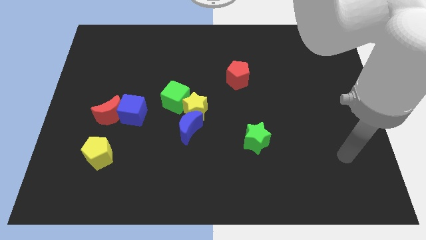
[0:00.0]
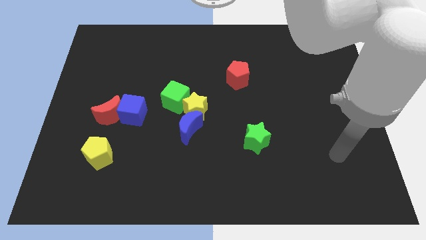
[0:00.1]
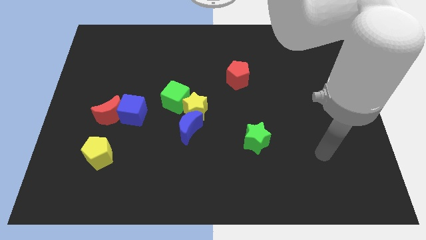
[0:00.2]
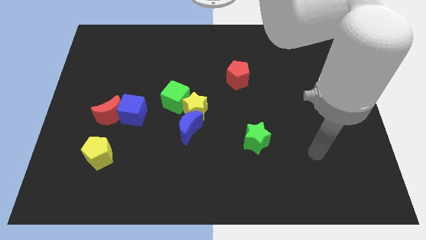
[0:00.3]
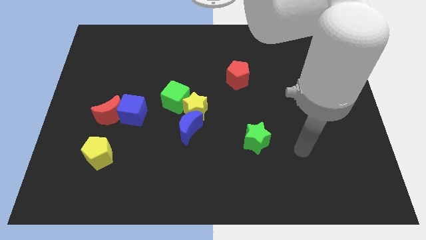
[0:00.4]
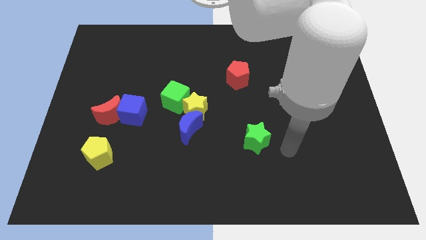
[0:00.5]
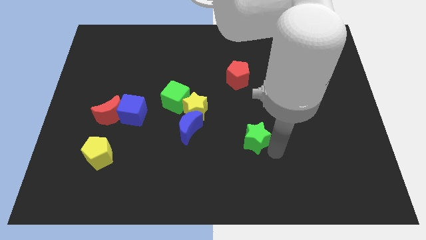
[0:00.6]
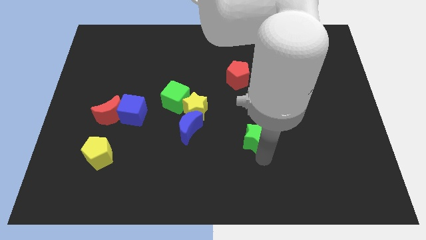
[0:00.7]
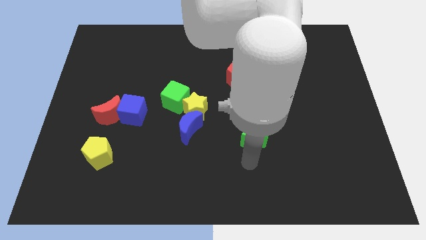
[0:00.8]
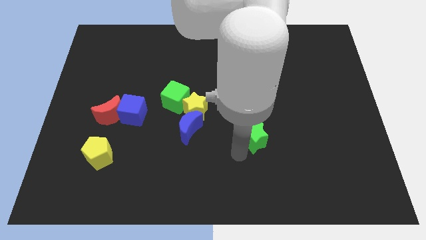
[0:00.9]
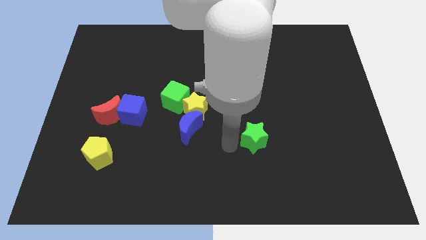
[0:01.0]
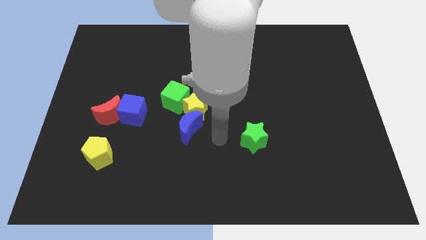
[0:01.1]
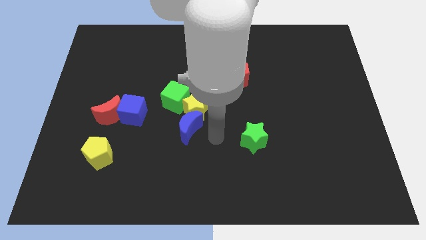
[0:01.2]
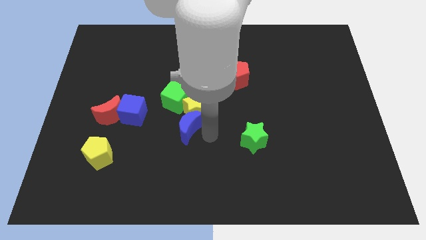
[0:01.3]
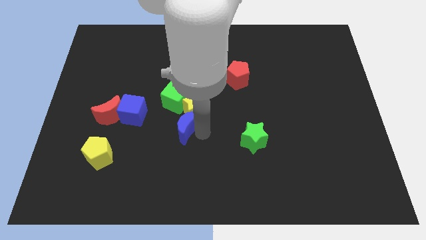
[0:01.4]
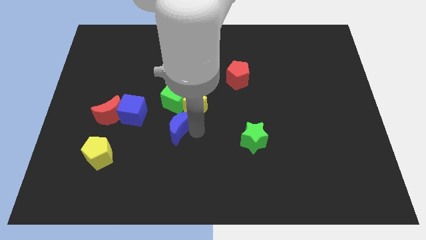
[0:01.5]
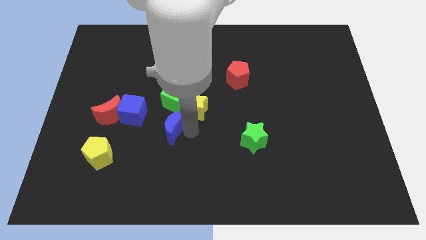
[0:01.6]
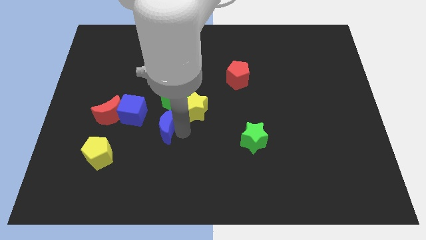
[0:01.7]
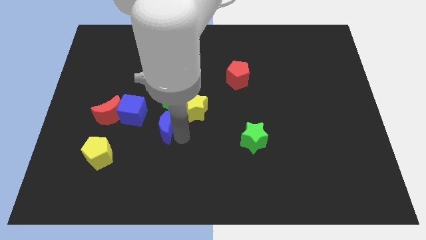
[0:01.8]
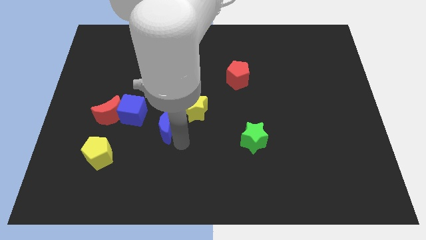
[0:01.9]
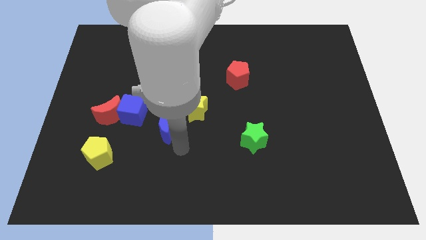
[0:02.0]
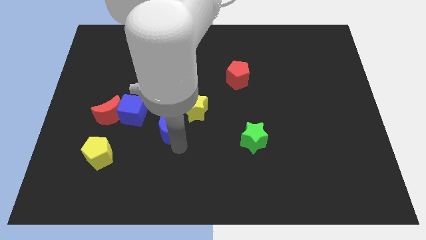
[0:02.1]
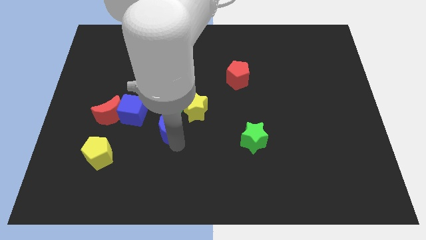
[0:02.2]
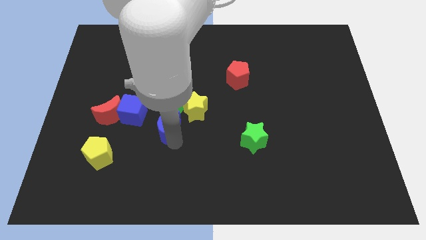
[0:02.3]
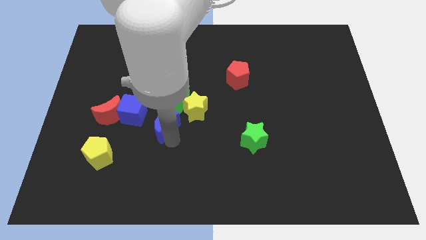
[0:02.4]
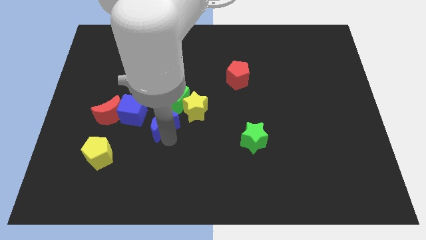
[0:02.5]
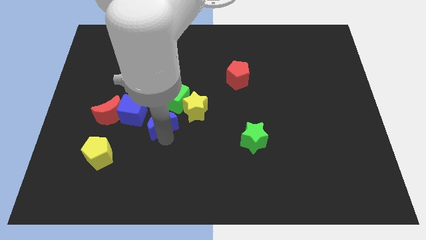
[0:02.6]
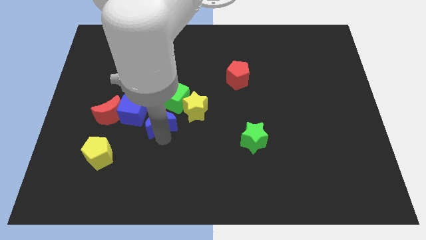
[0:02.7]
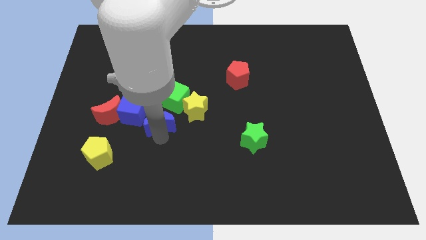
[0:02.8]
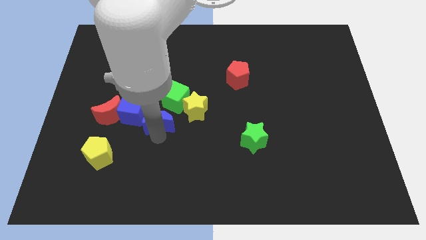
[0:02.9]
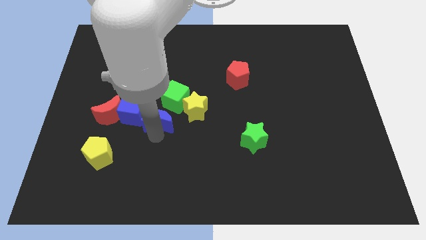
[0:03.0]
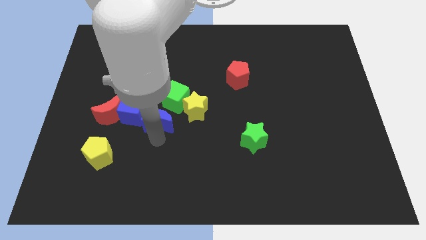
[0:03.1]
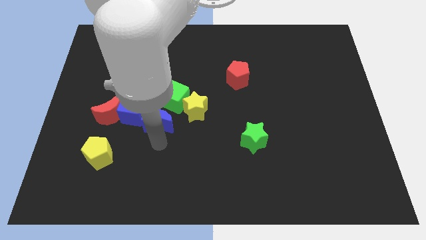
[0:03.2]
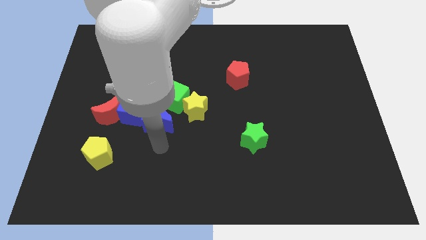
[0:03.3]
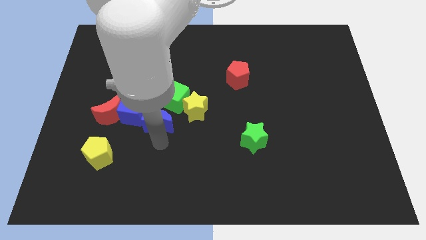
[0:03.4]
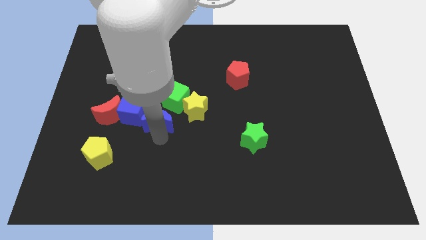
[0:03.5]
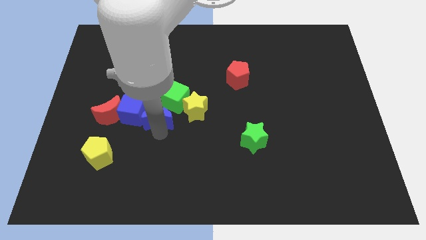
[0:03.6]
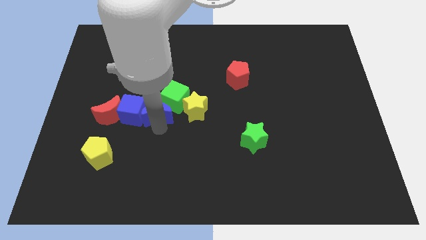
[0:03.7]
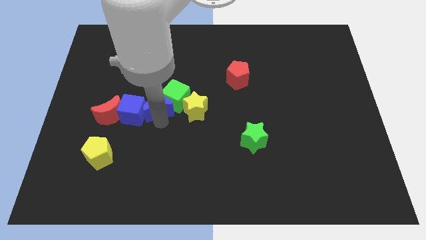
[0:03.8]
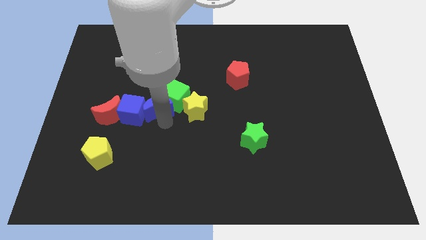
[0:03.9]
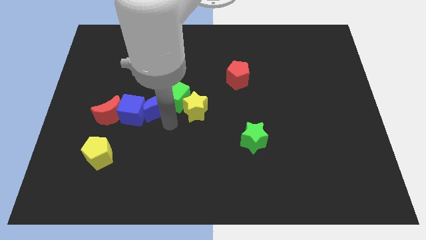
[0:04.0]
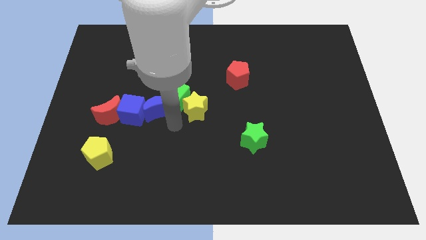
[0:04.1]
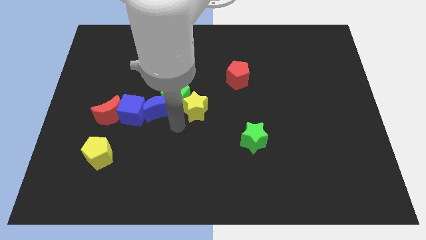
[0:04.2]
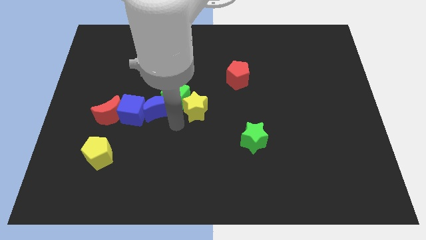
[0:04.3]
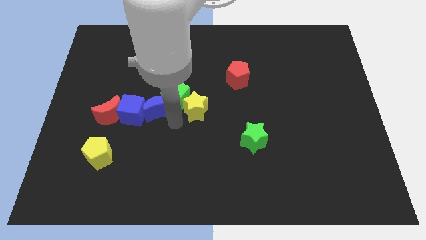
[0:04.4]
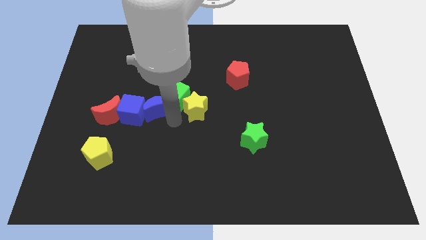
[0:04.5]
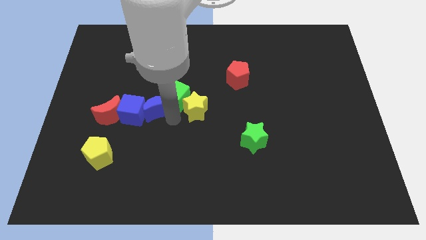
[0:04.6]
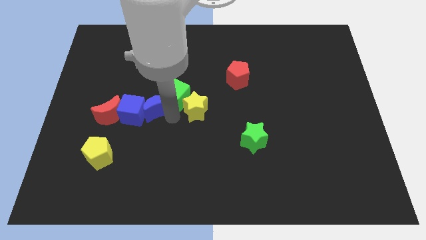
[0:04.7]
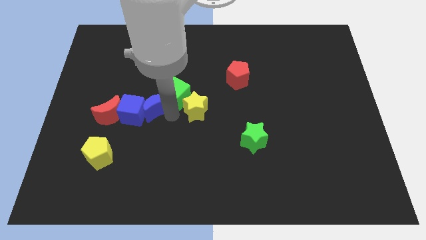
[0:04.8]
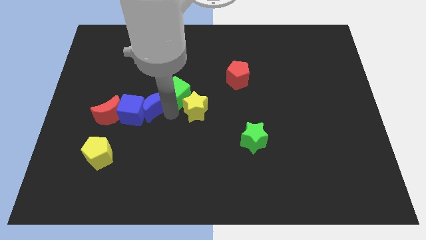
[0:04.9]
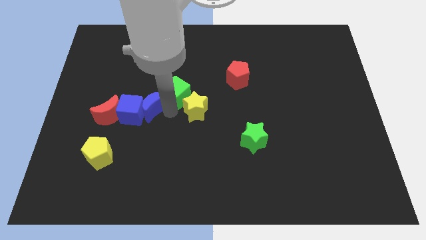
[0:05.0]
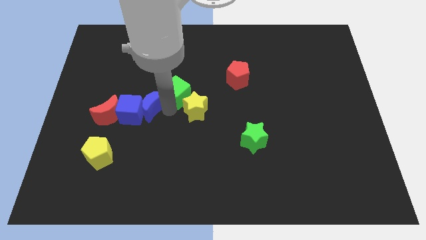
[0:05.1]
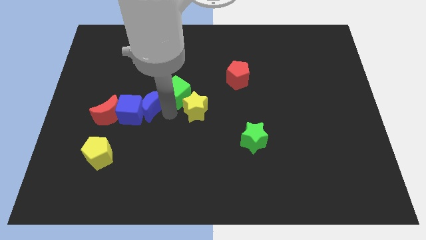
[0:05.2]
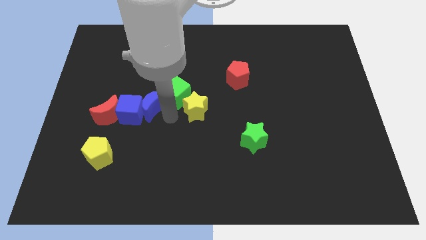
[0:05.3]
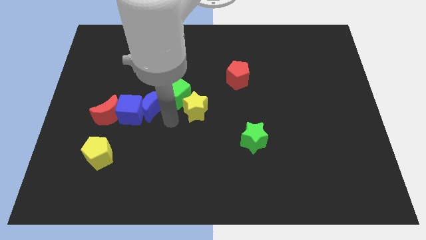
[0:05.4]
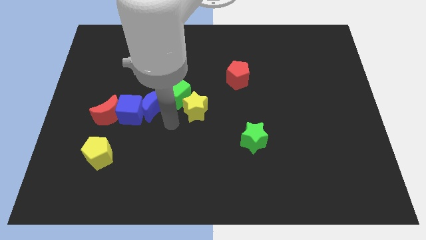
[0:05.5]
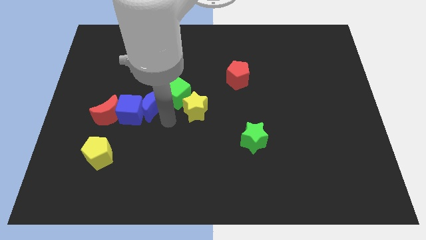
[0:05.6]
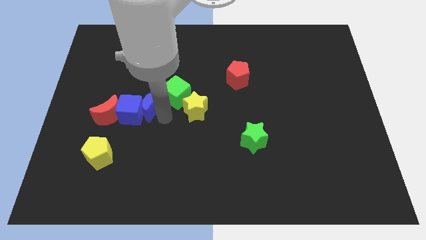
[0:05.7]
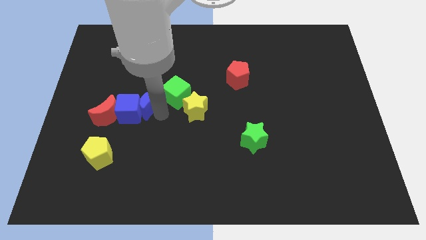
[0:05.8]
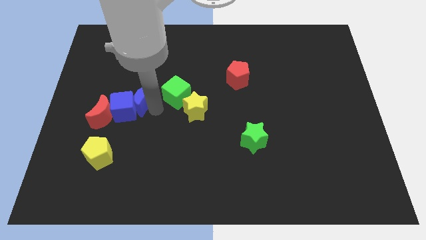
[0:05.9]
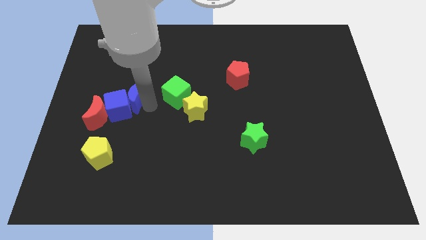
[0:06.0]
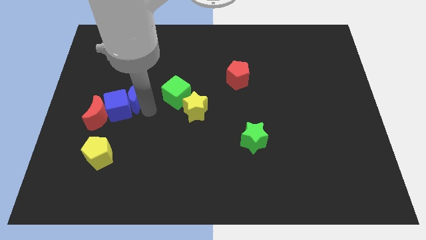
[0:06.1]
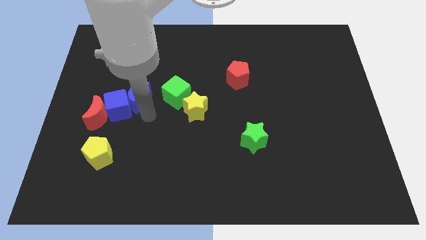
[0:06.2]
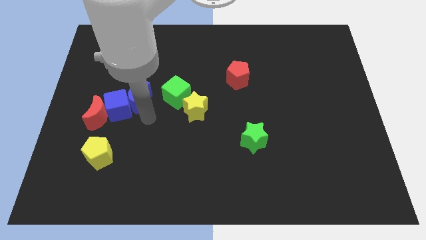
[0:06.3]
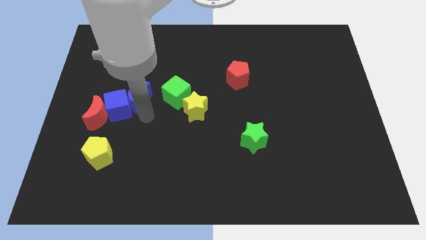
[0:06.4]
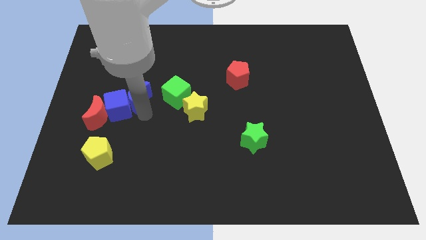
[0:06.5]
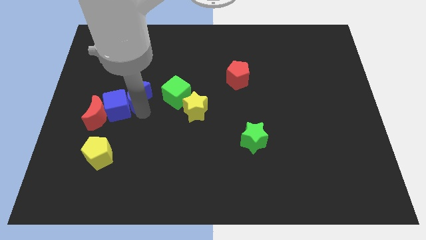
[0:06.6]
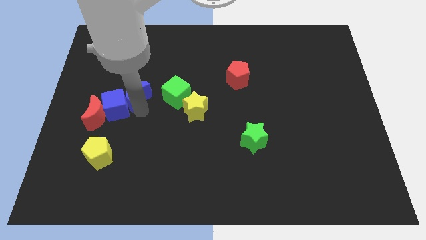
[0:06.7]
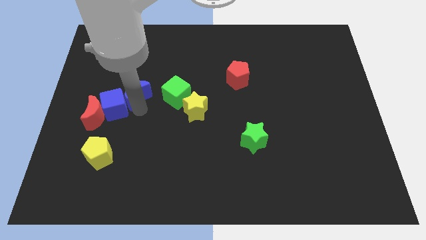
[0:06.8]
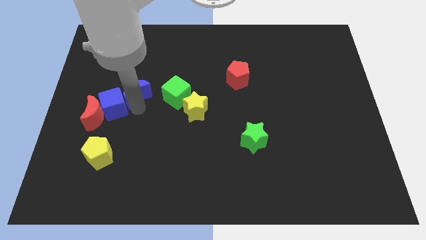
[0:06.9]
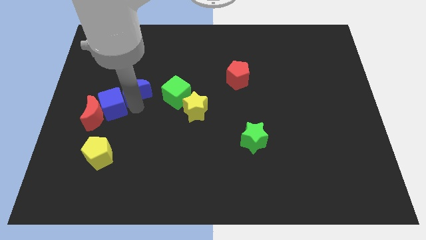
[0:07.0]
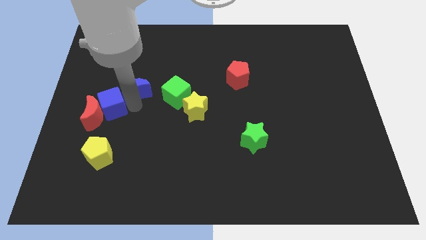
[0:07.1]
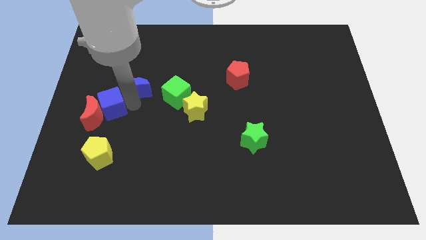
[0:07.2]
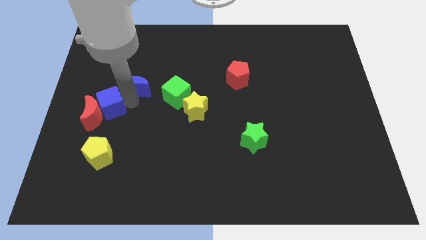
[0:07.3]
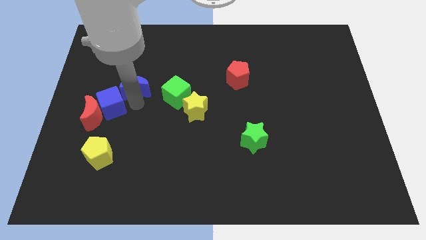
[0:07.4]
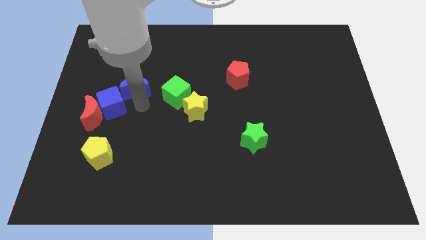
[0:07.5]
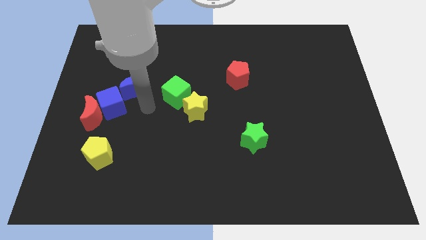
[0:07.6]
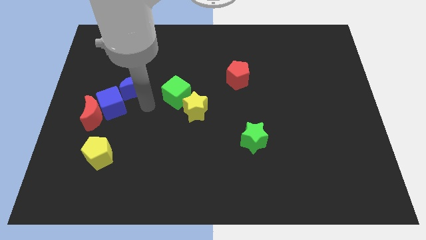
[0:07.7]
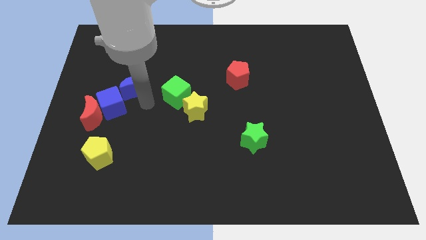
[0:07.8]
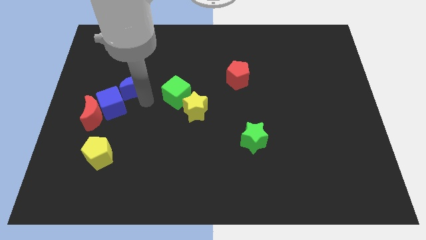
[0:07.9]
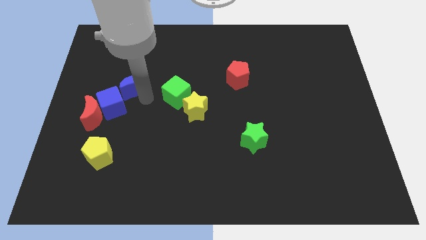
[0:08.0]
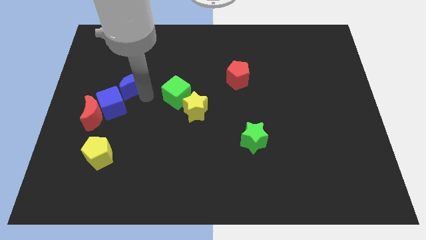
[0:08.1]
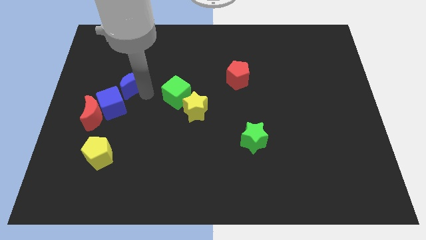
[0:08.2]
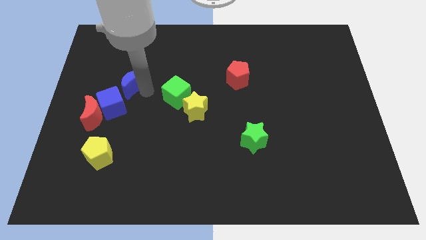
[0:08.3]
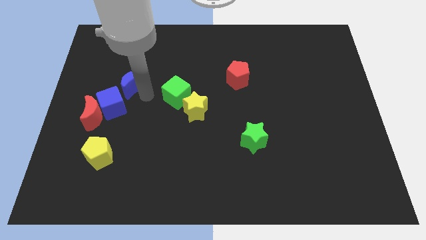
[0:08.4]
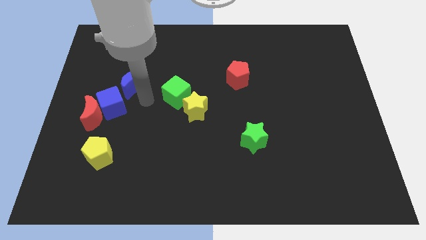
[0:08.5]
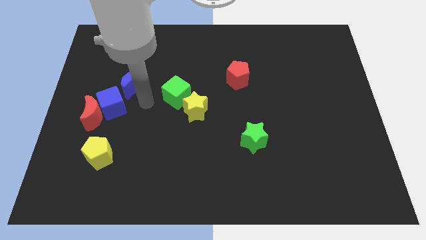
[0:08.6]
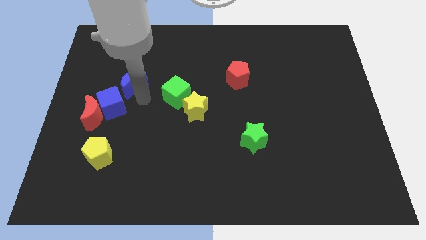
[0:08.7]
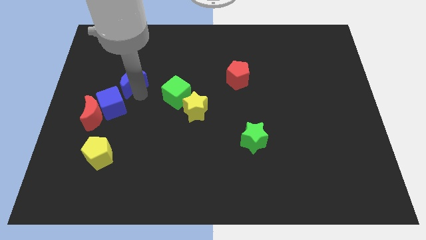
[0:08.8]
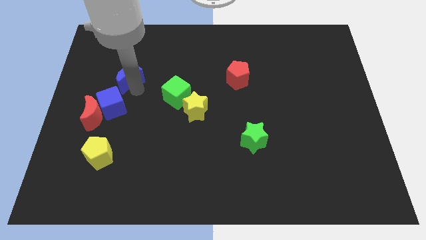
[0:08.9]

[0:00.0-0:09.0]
slide the blue moon up and then to the left
